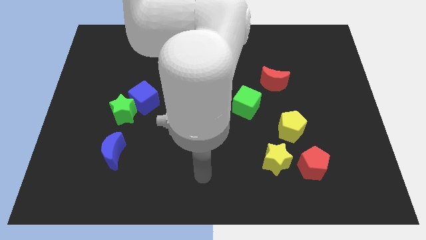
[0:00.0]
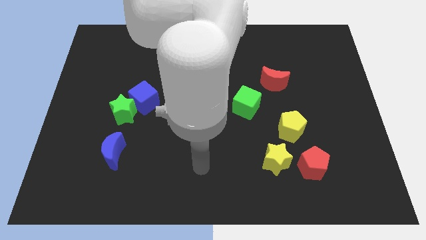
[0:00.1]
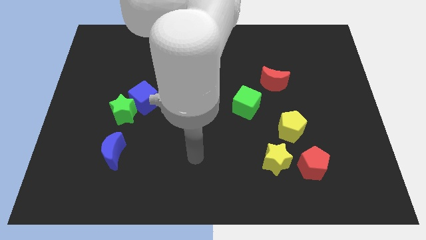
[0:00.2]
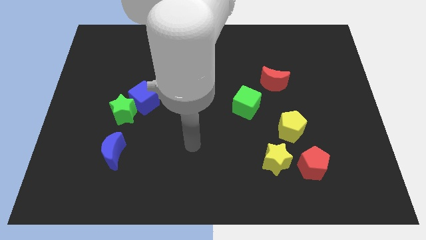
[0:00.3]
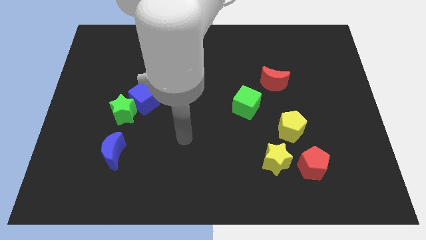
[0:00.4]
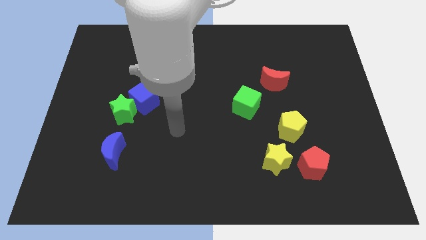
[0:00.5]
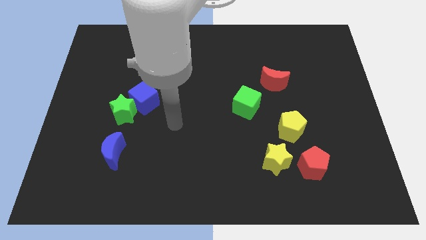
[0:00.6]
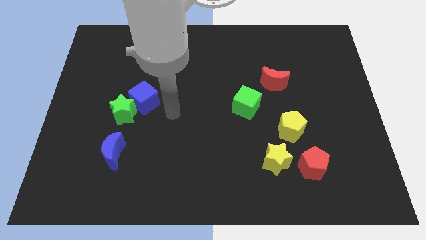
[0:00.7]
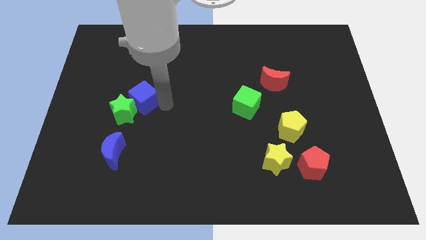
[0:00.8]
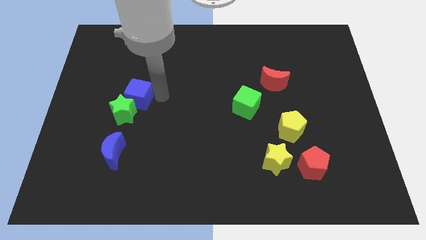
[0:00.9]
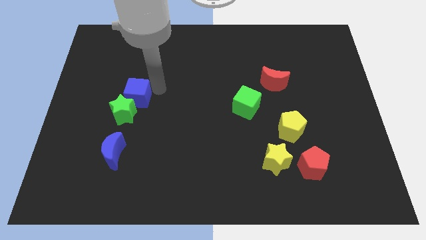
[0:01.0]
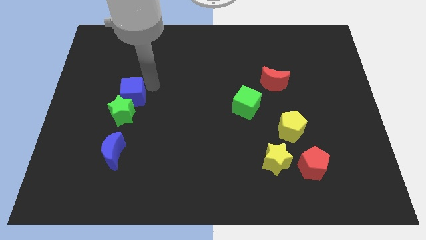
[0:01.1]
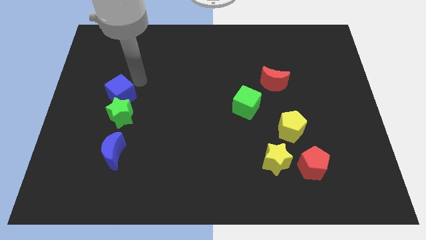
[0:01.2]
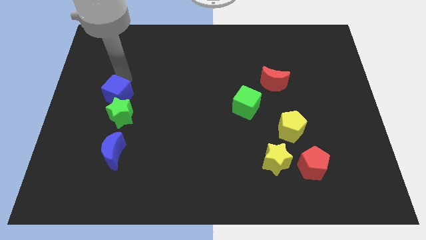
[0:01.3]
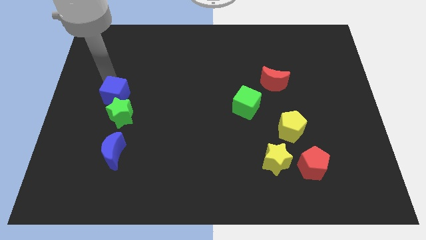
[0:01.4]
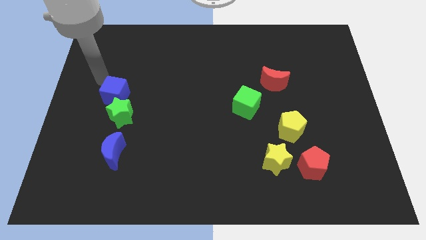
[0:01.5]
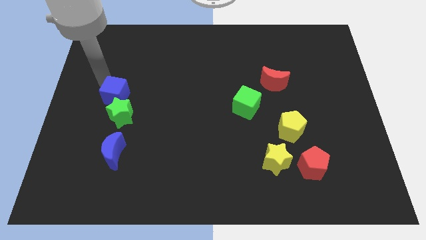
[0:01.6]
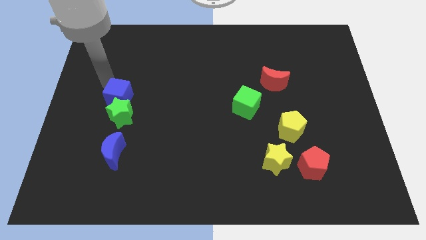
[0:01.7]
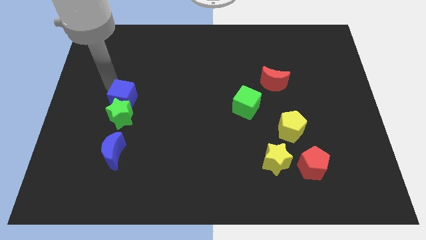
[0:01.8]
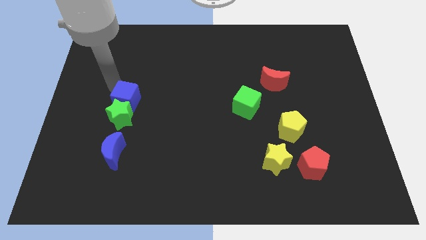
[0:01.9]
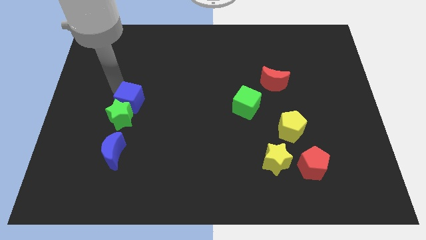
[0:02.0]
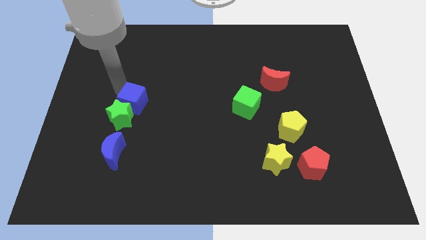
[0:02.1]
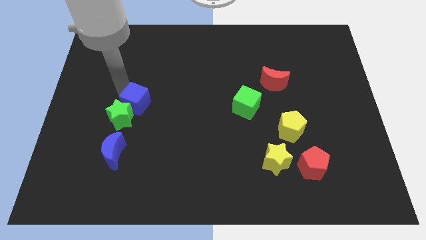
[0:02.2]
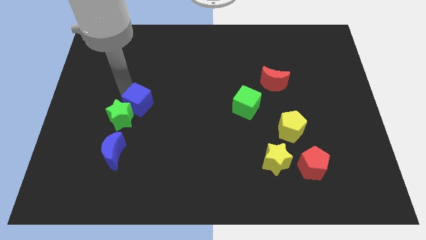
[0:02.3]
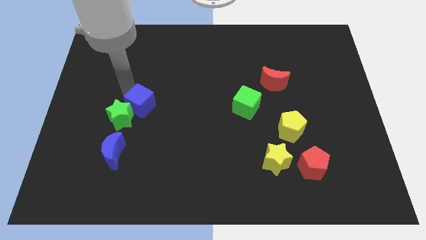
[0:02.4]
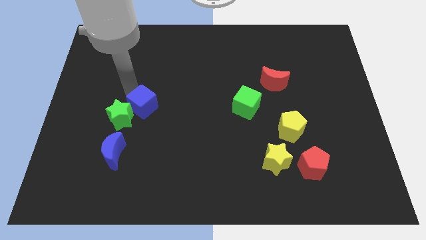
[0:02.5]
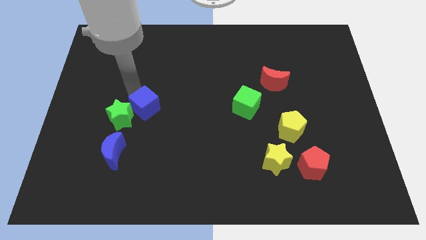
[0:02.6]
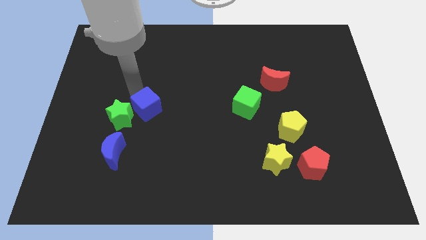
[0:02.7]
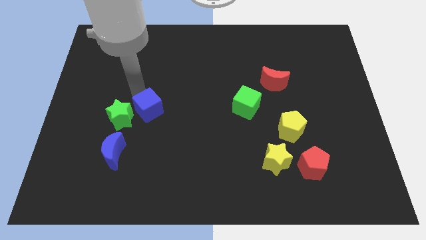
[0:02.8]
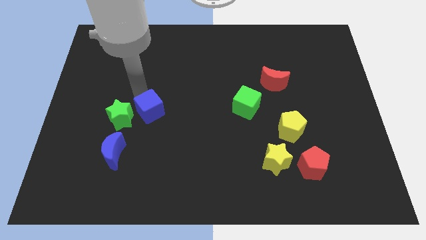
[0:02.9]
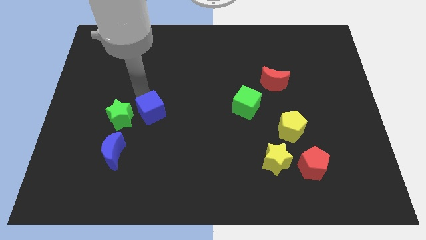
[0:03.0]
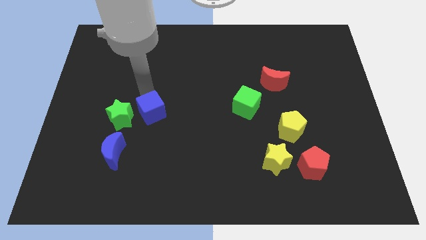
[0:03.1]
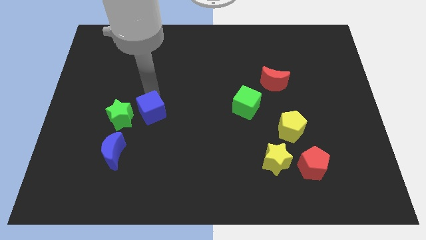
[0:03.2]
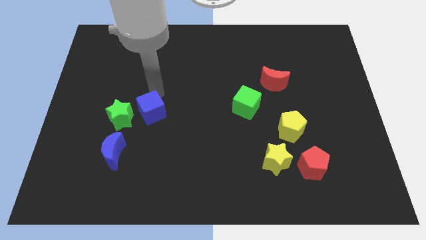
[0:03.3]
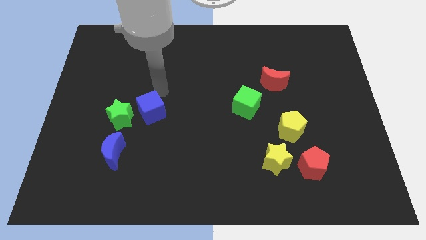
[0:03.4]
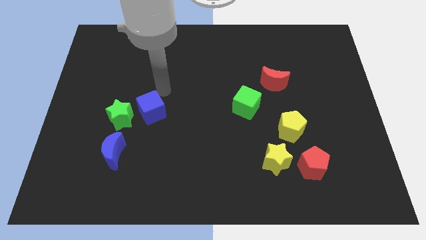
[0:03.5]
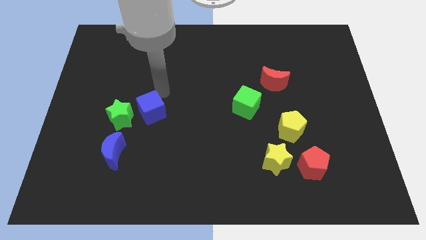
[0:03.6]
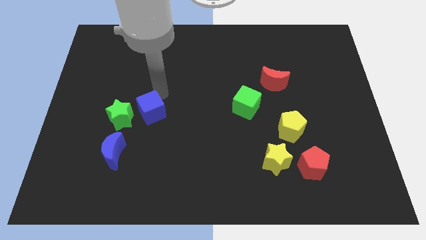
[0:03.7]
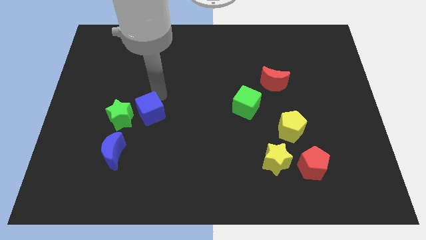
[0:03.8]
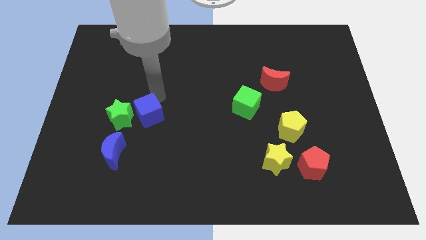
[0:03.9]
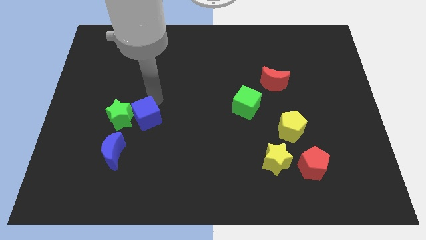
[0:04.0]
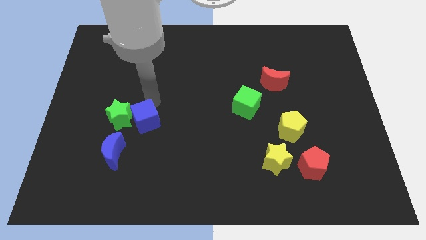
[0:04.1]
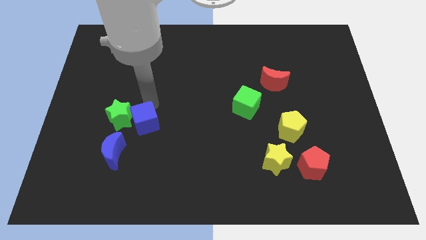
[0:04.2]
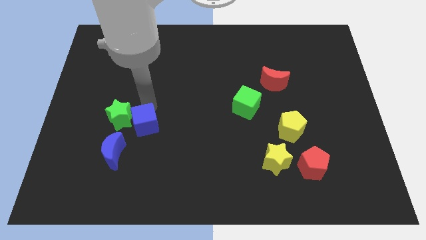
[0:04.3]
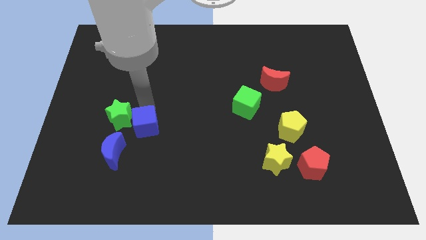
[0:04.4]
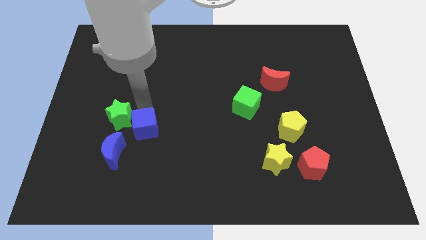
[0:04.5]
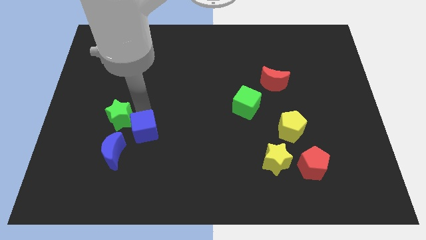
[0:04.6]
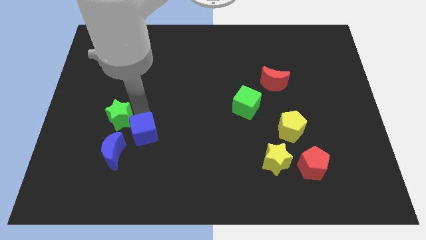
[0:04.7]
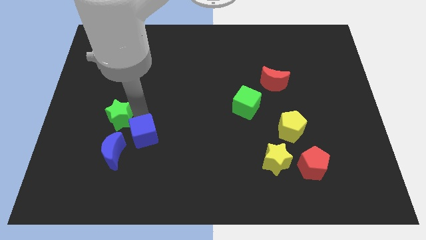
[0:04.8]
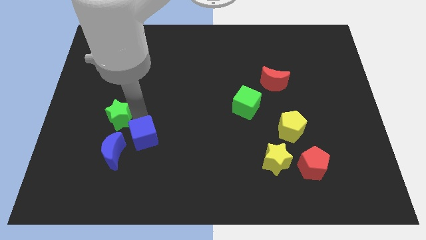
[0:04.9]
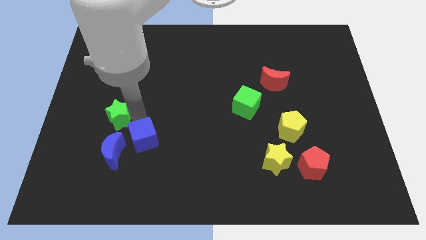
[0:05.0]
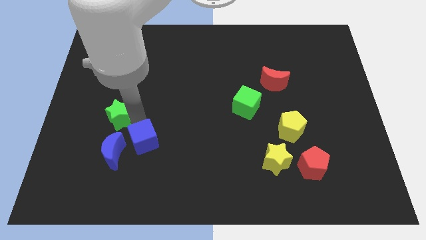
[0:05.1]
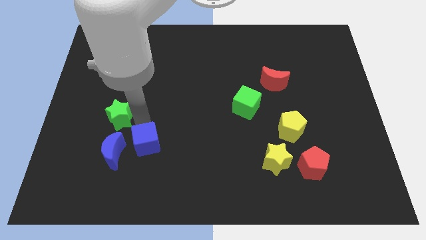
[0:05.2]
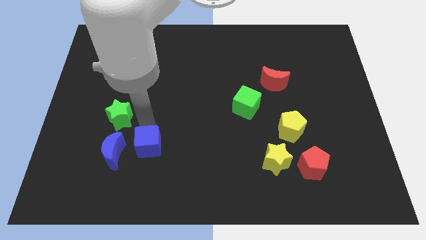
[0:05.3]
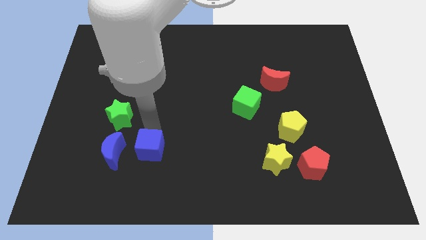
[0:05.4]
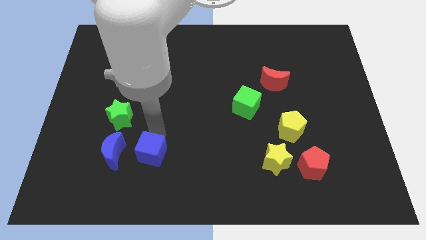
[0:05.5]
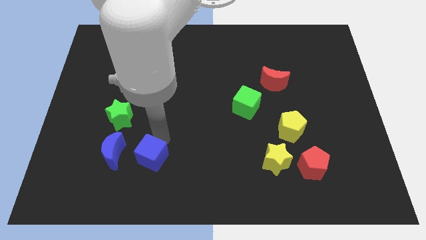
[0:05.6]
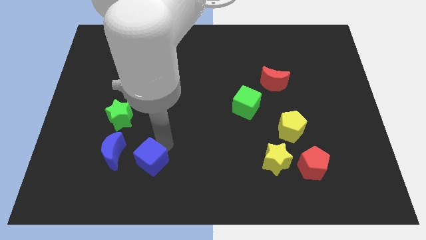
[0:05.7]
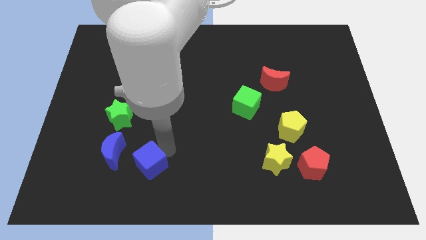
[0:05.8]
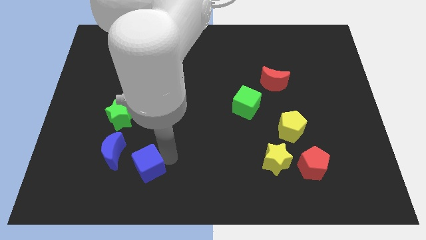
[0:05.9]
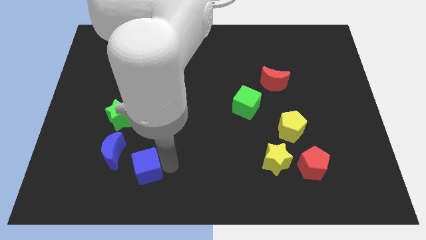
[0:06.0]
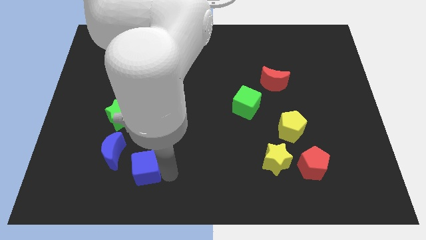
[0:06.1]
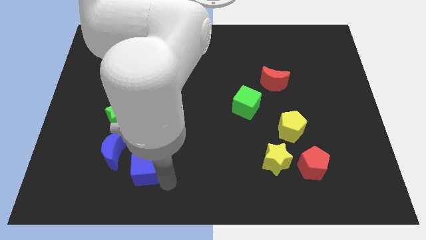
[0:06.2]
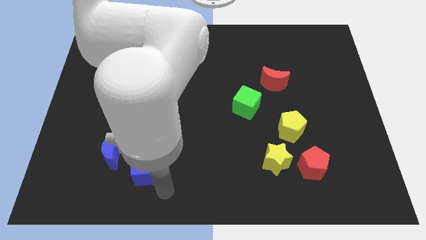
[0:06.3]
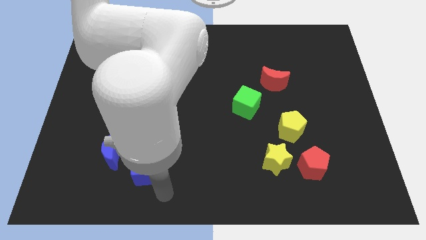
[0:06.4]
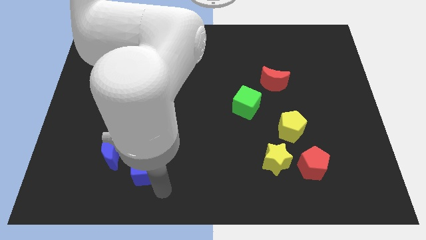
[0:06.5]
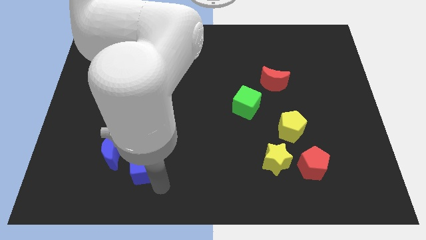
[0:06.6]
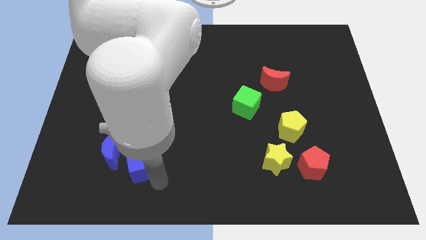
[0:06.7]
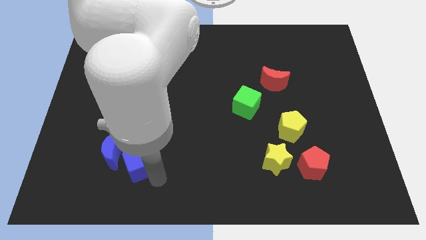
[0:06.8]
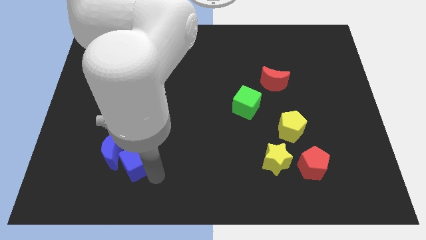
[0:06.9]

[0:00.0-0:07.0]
push the blue cube to the blue moon
